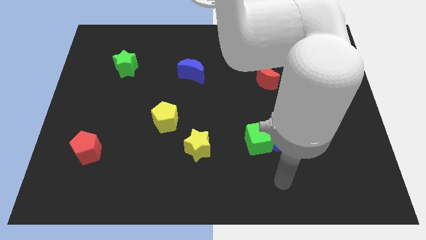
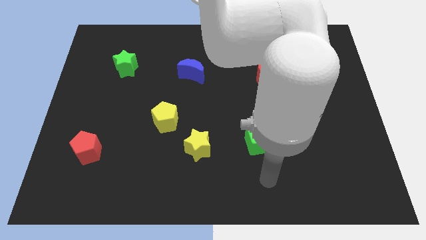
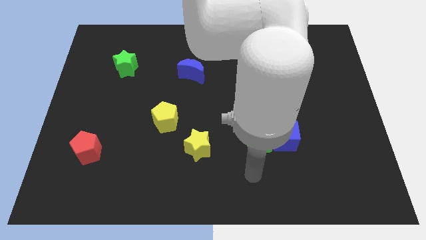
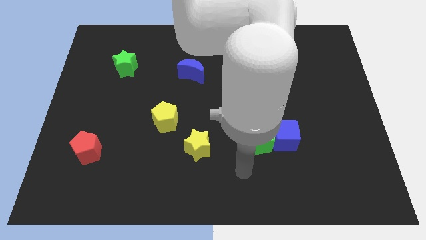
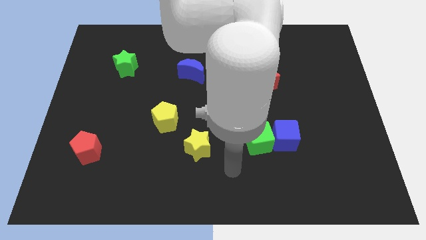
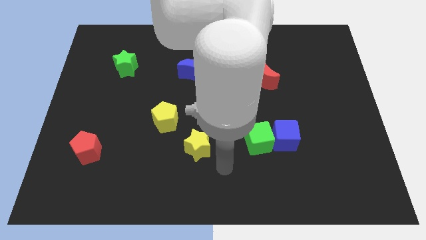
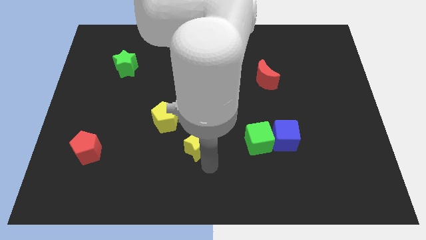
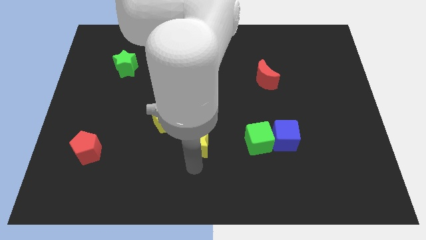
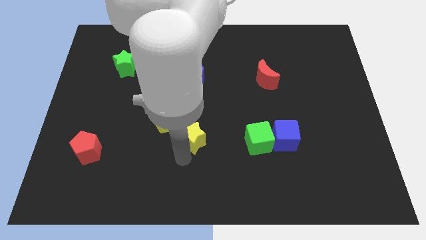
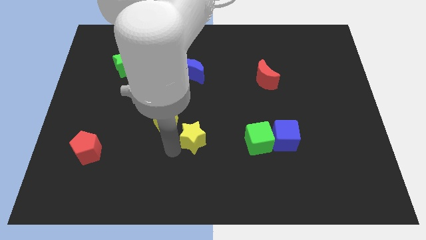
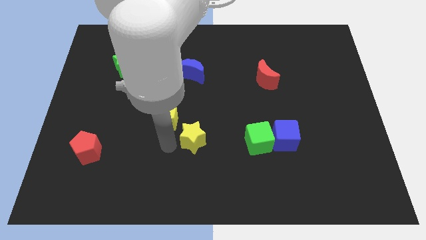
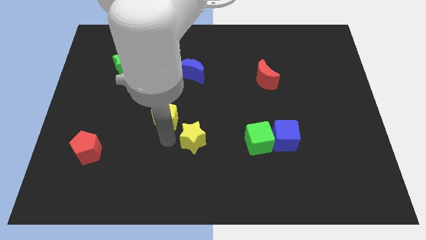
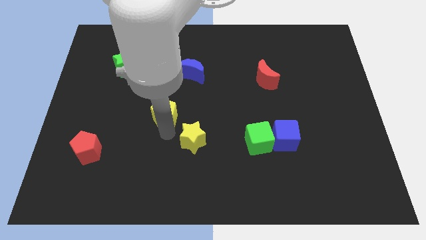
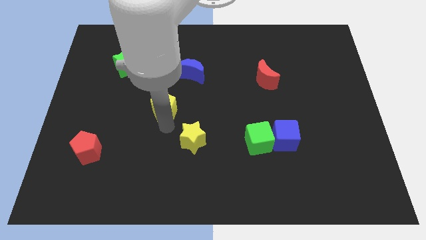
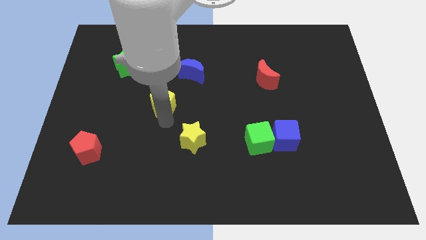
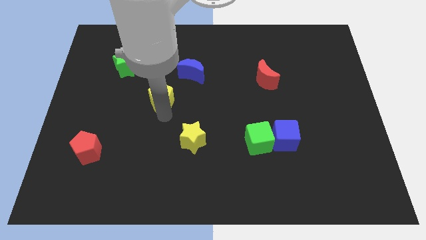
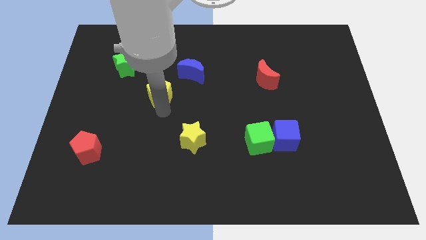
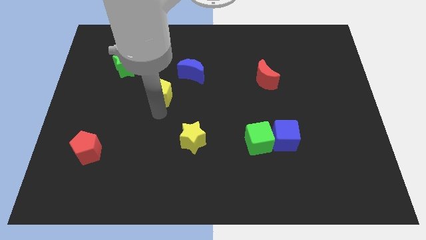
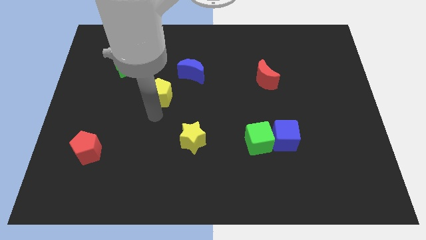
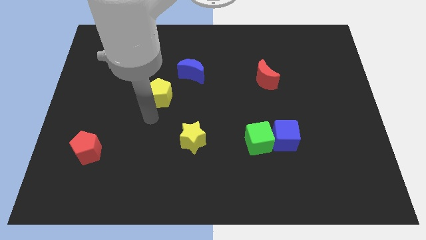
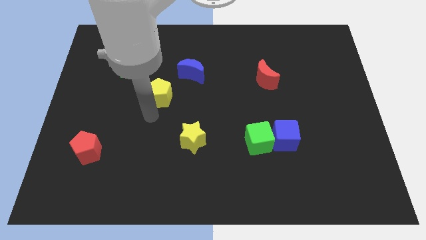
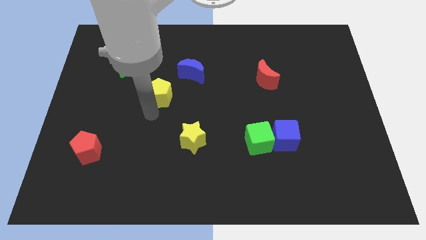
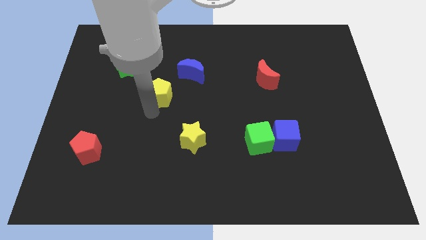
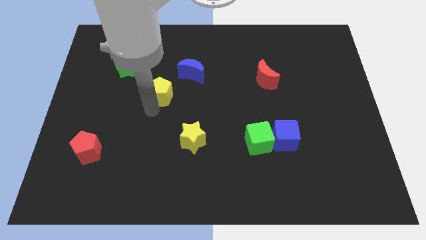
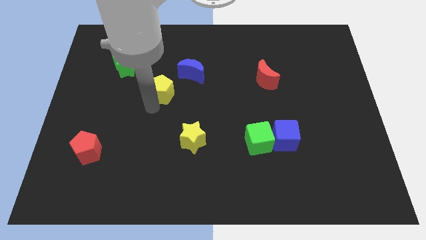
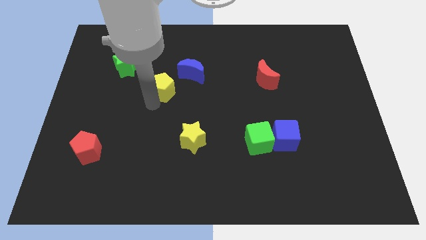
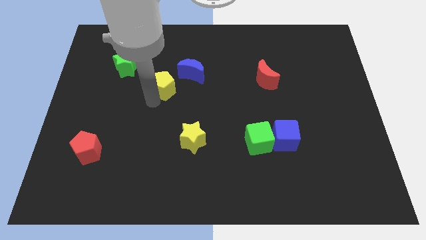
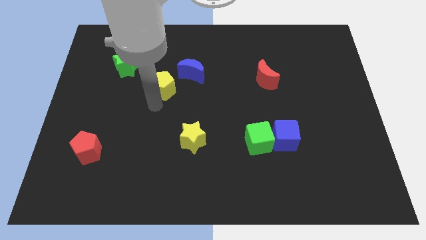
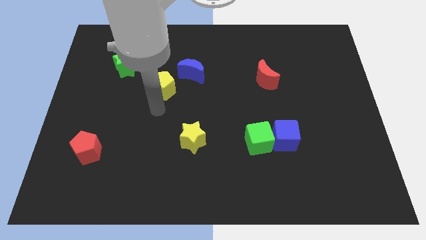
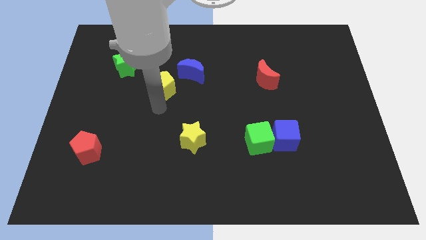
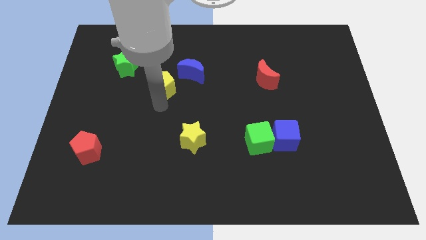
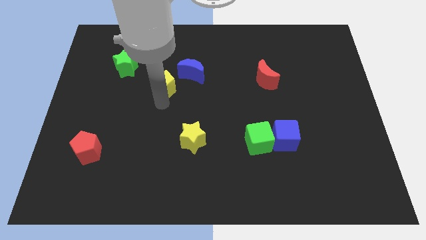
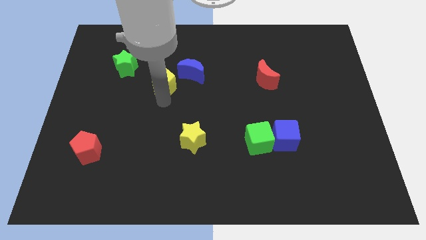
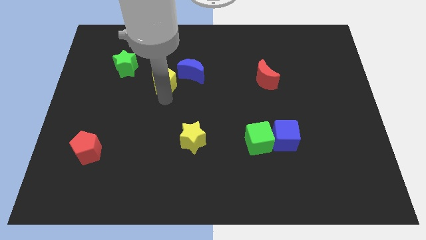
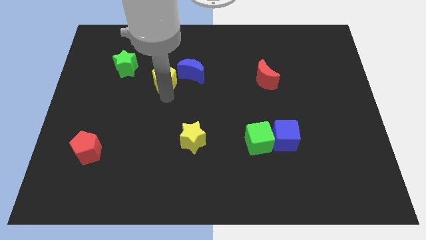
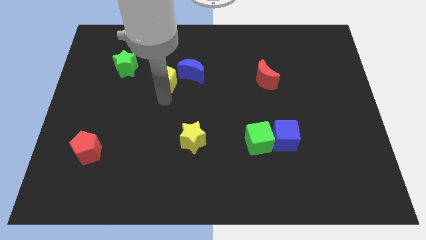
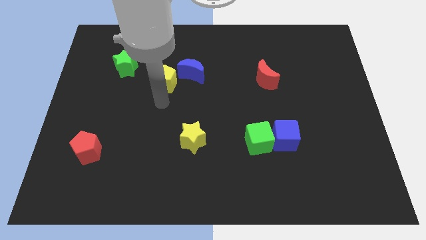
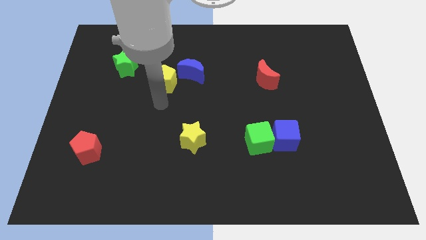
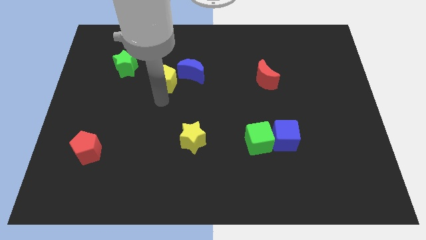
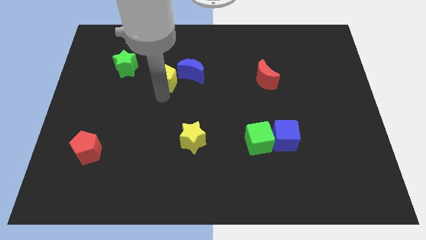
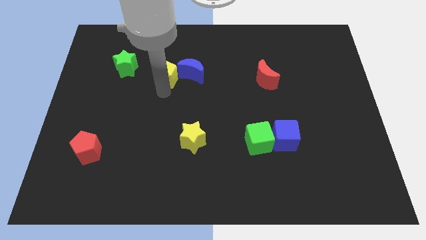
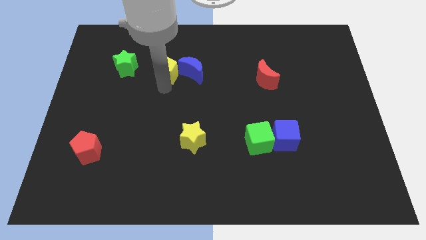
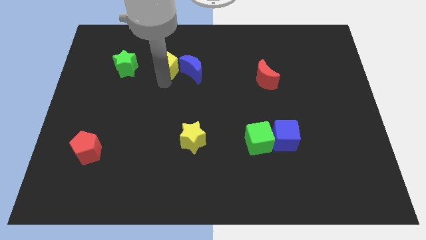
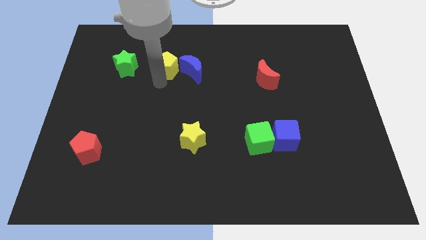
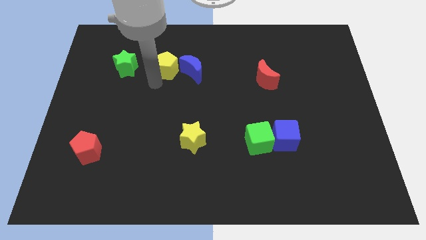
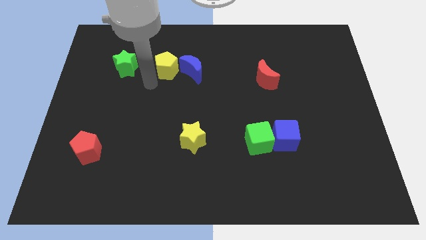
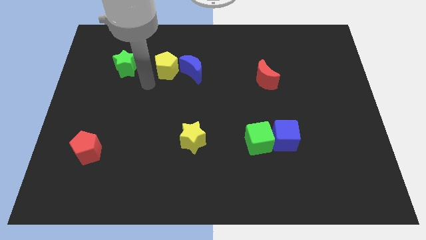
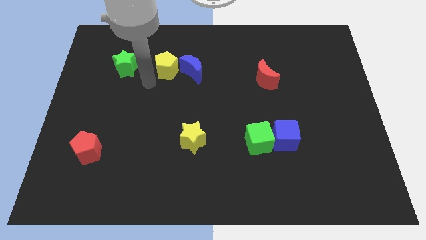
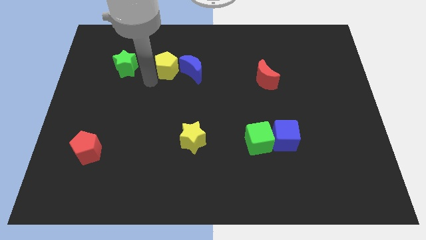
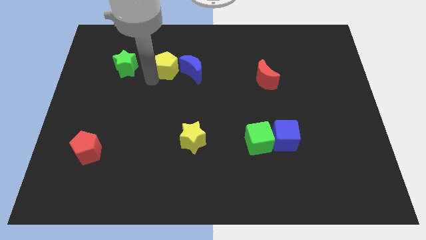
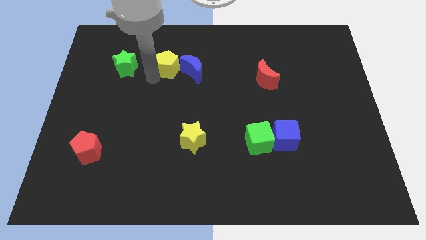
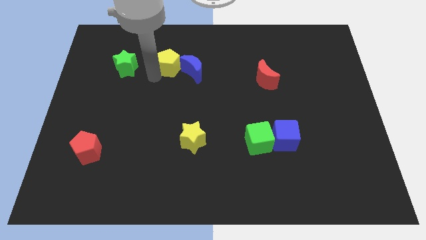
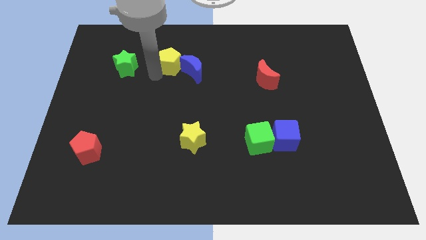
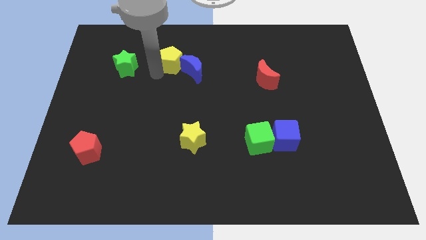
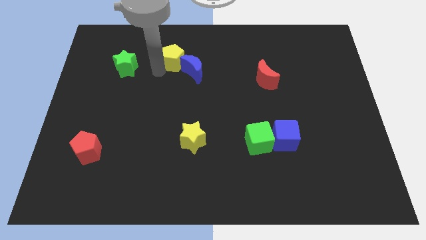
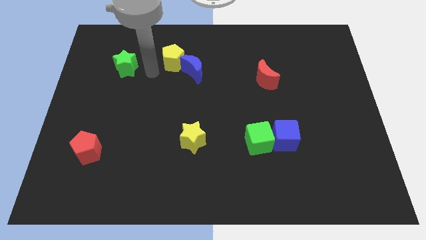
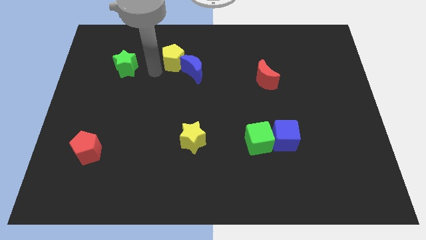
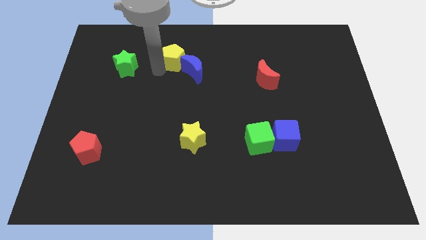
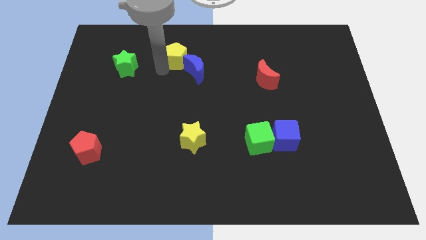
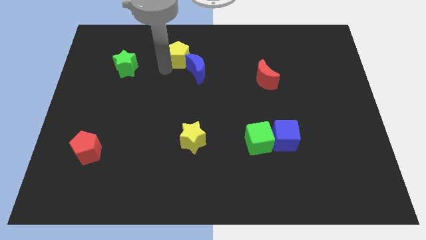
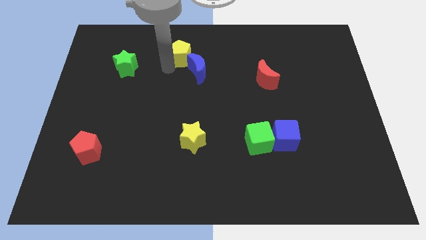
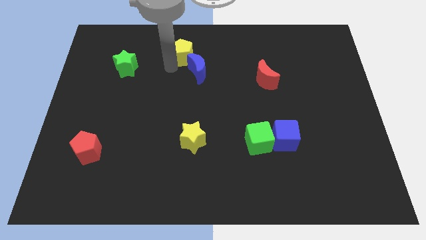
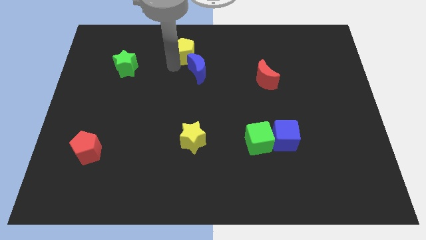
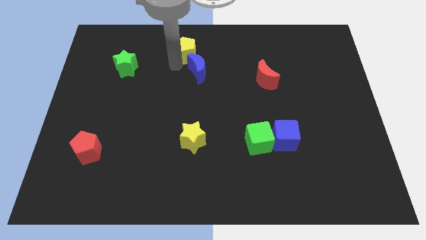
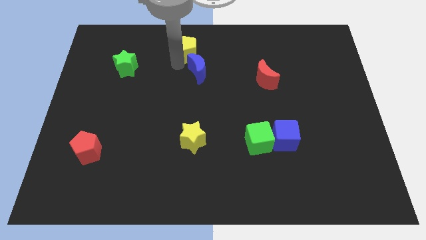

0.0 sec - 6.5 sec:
move the yellow pentagon to the towards your base

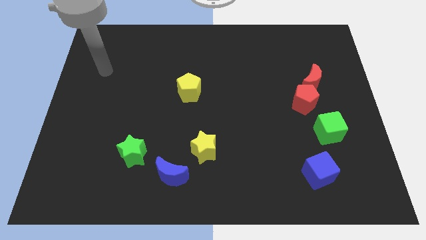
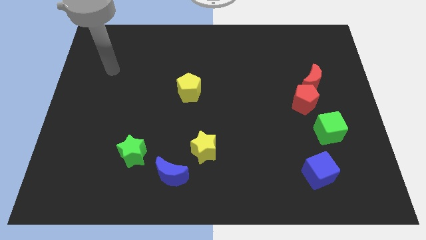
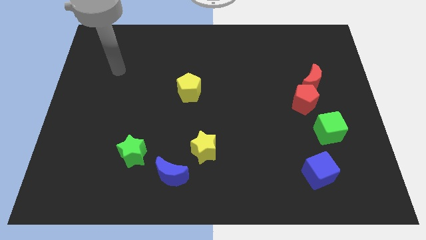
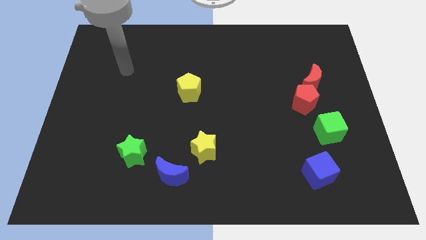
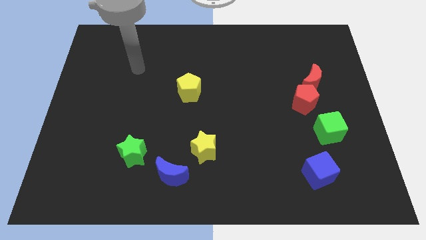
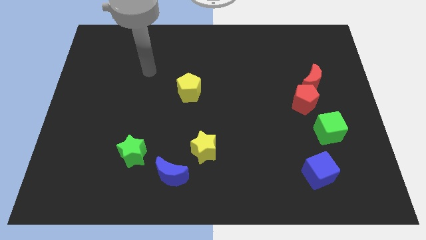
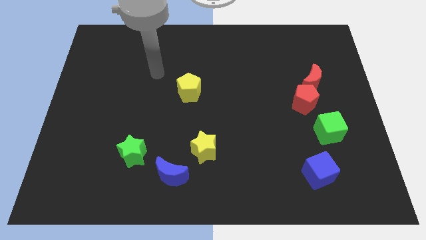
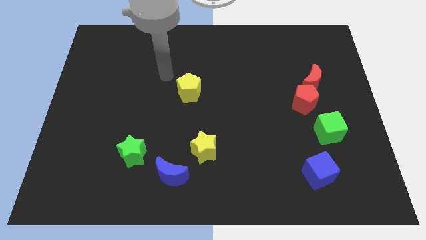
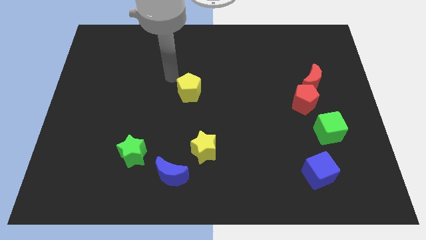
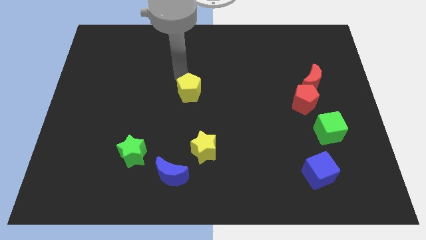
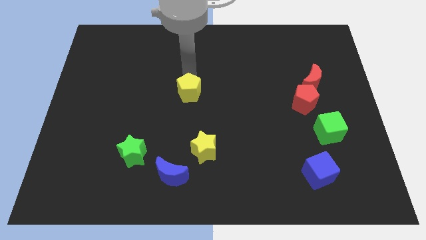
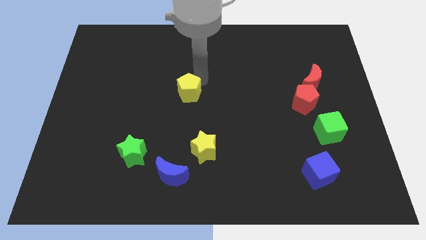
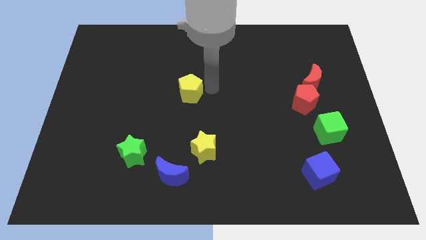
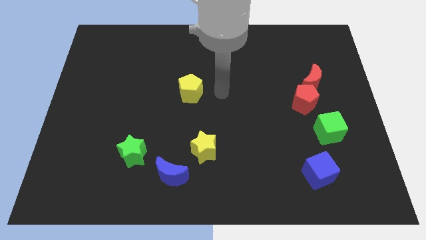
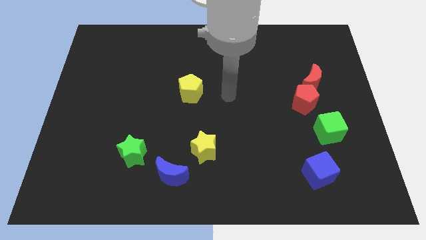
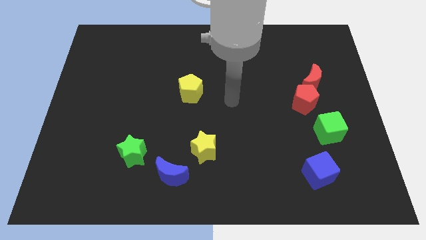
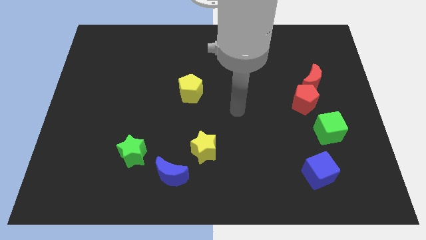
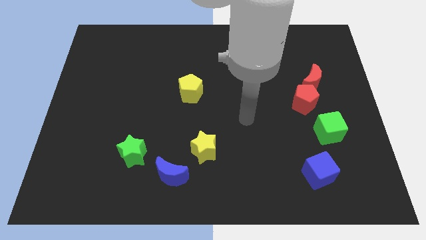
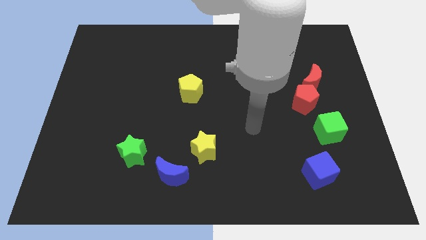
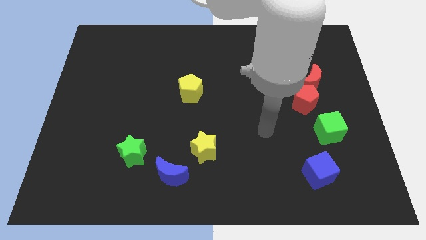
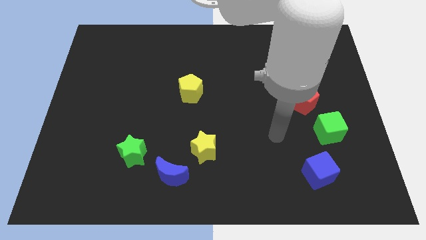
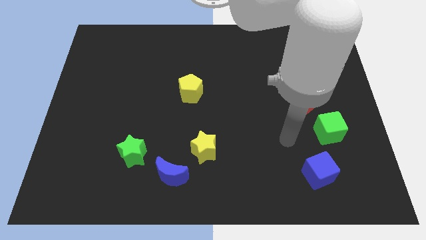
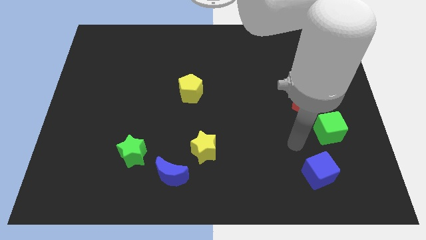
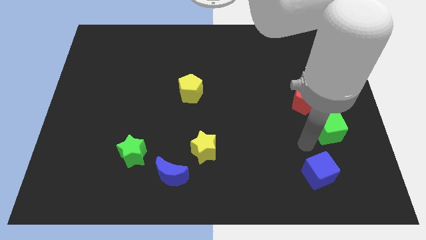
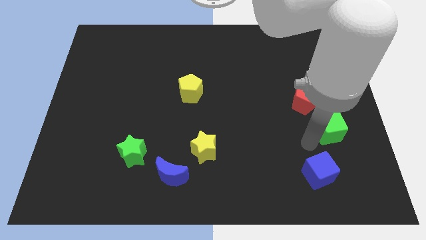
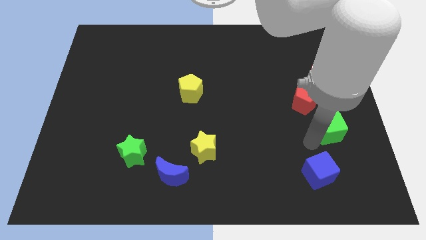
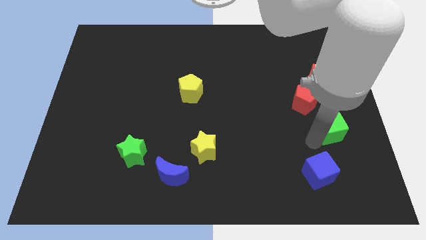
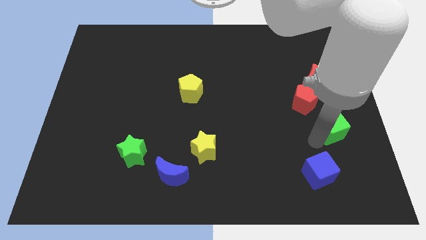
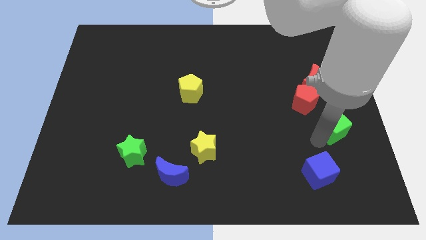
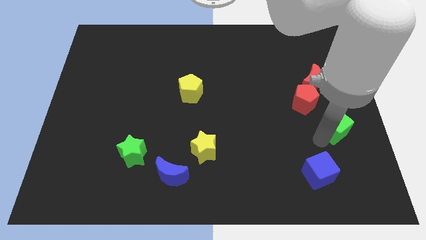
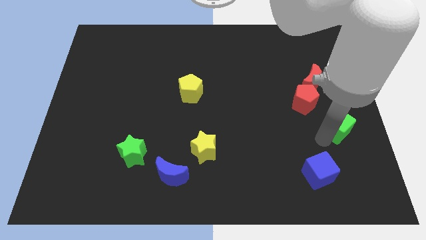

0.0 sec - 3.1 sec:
put the green cube to the center right
